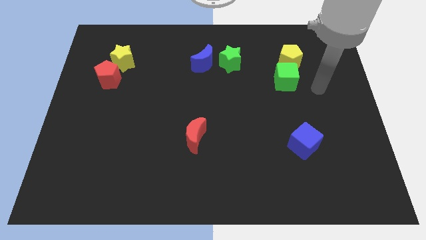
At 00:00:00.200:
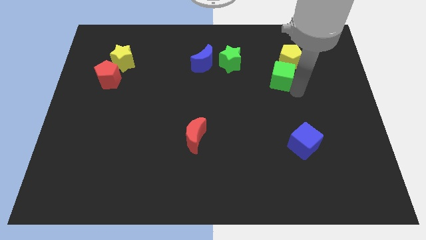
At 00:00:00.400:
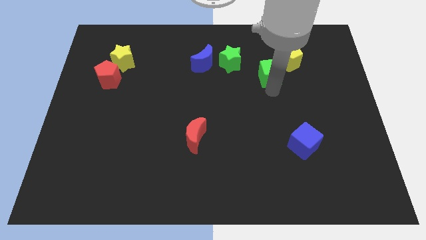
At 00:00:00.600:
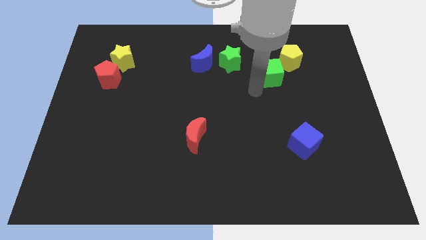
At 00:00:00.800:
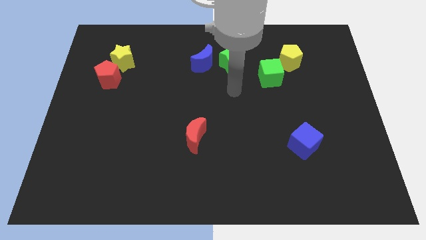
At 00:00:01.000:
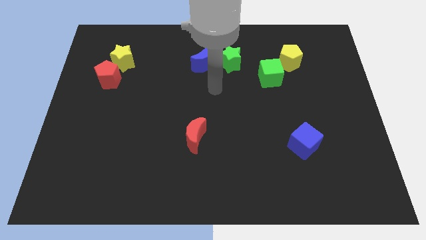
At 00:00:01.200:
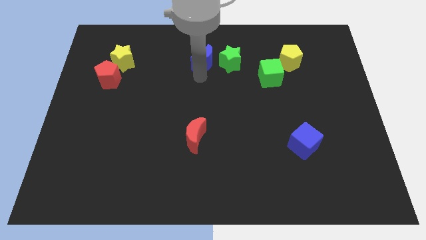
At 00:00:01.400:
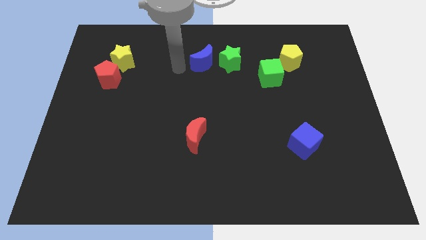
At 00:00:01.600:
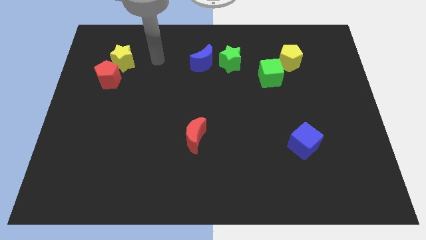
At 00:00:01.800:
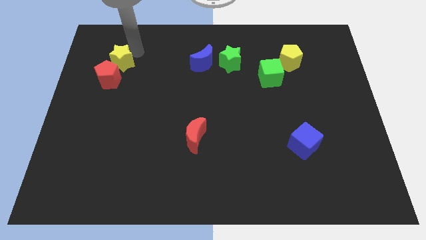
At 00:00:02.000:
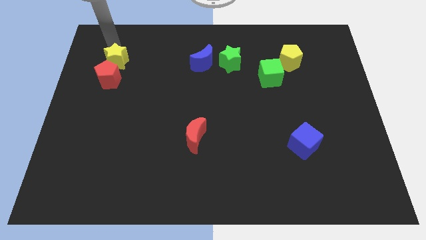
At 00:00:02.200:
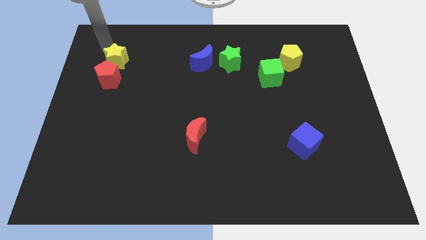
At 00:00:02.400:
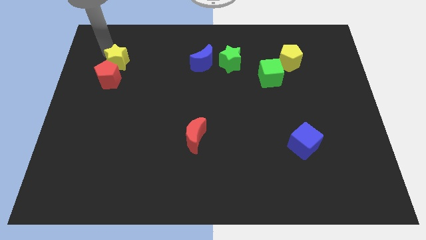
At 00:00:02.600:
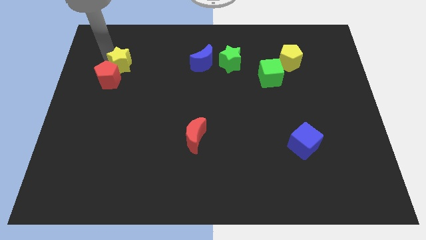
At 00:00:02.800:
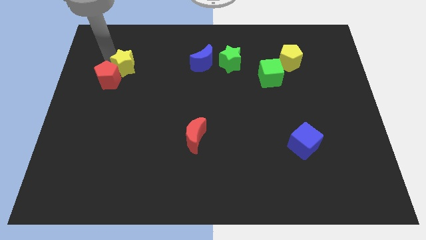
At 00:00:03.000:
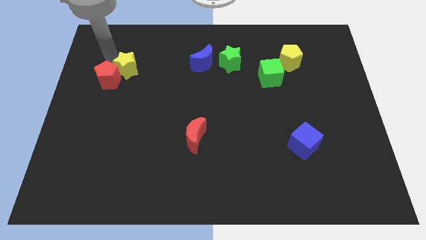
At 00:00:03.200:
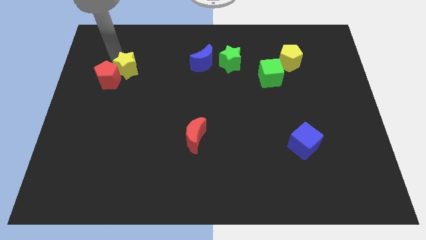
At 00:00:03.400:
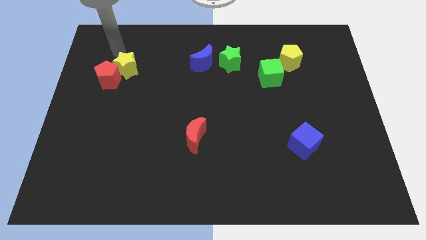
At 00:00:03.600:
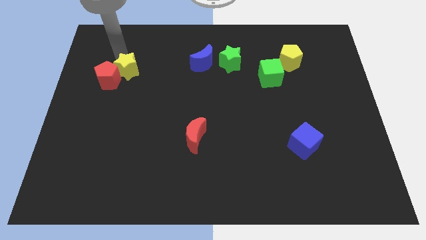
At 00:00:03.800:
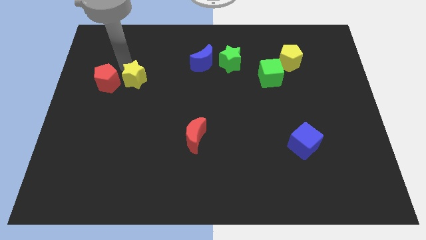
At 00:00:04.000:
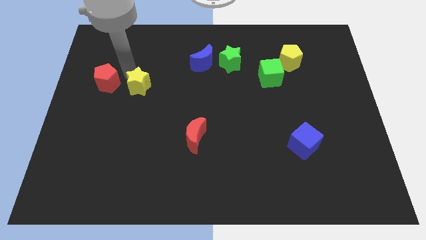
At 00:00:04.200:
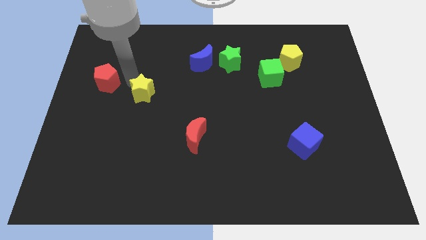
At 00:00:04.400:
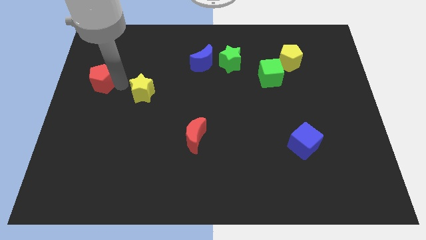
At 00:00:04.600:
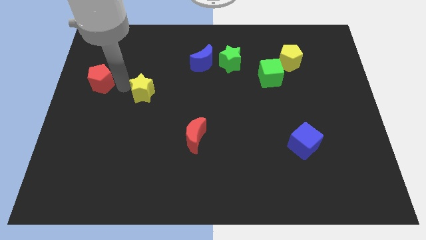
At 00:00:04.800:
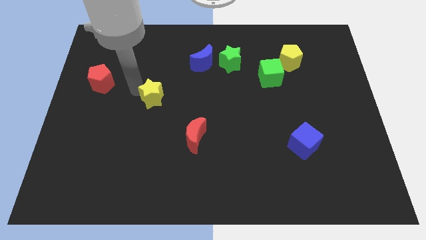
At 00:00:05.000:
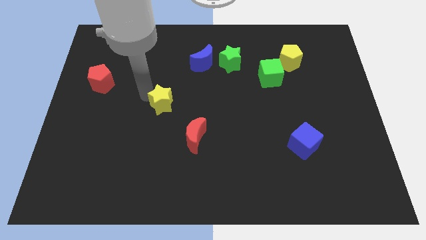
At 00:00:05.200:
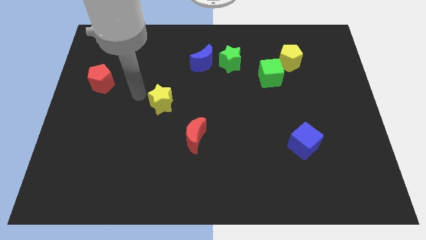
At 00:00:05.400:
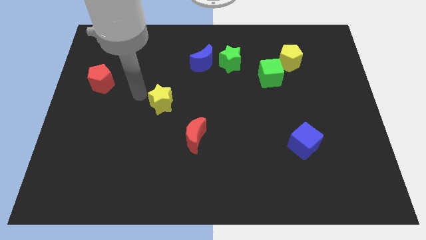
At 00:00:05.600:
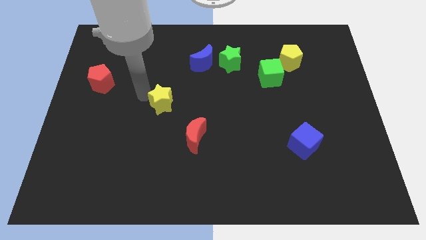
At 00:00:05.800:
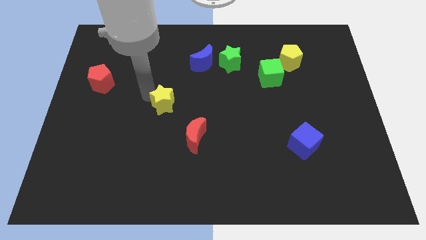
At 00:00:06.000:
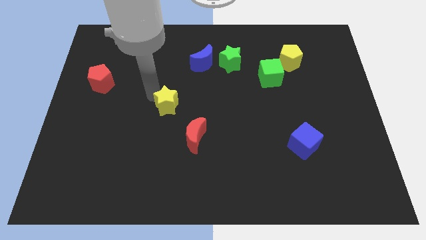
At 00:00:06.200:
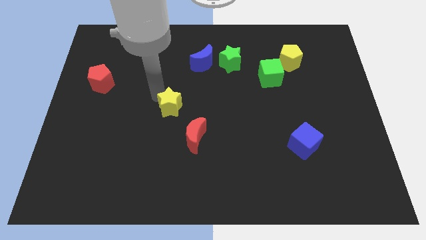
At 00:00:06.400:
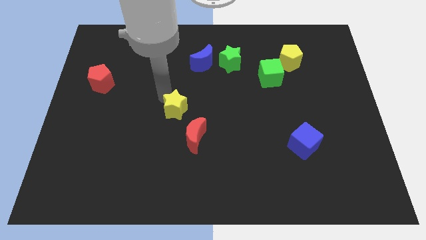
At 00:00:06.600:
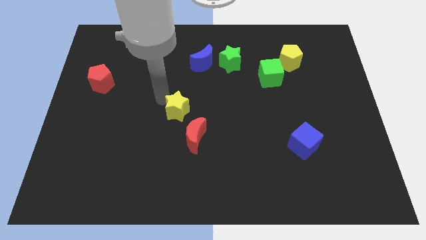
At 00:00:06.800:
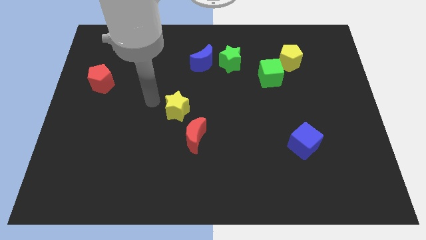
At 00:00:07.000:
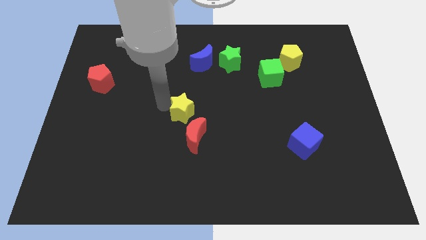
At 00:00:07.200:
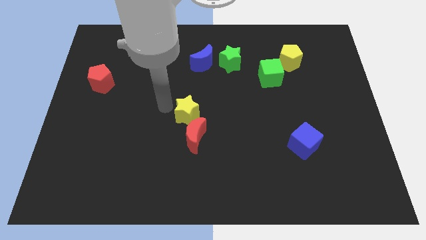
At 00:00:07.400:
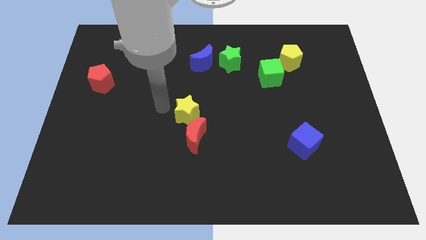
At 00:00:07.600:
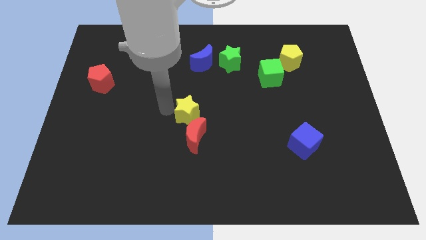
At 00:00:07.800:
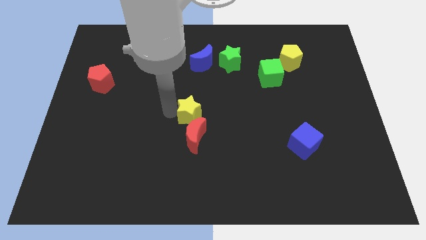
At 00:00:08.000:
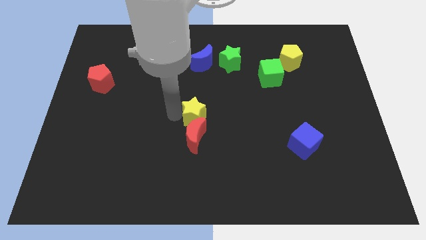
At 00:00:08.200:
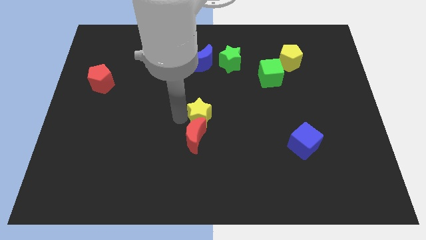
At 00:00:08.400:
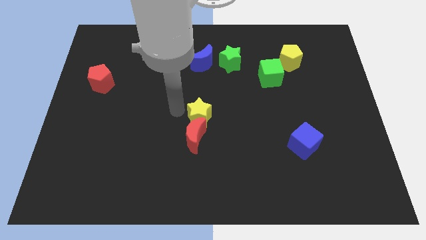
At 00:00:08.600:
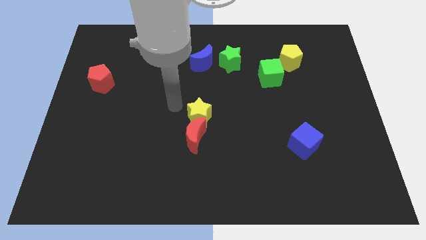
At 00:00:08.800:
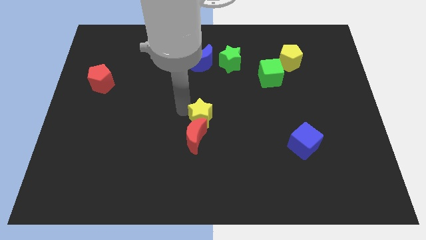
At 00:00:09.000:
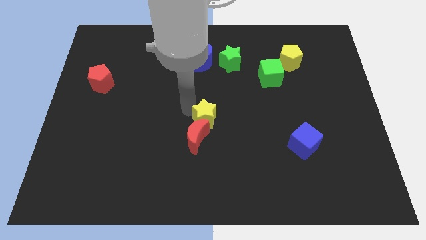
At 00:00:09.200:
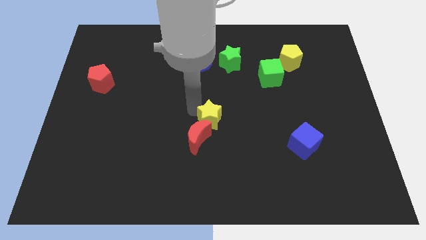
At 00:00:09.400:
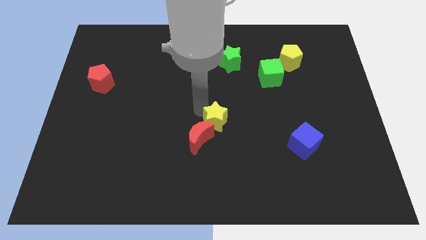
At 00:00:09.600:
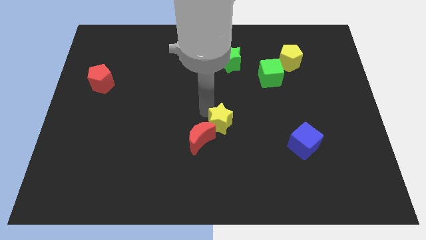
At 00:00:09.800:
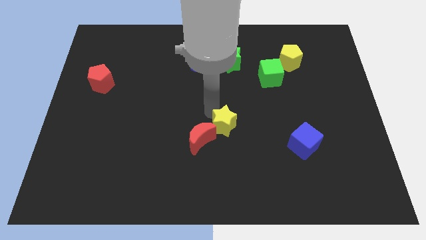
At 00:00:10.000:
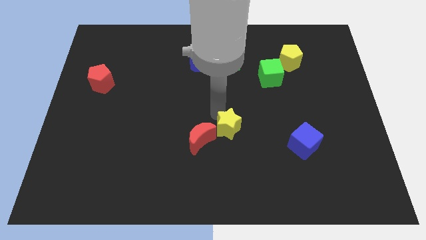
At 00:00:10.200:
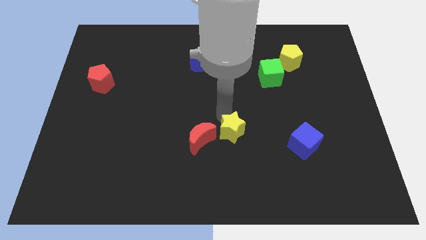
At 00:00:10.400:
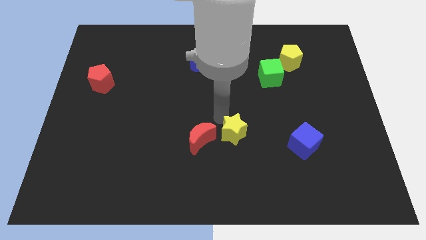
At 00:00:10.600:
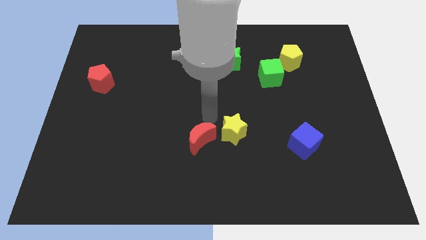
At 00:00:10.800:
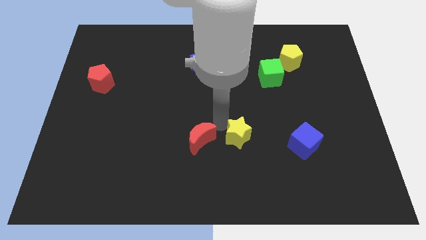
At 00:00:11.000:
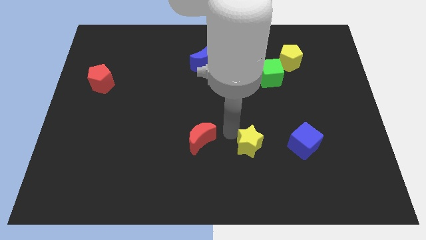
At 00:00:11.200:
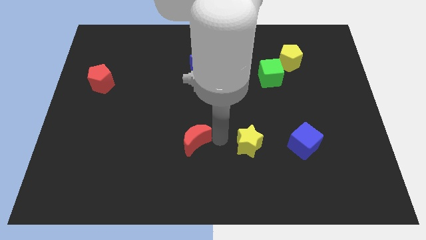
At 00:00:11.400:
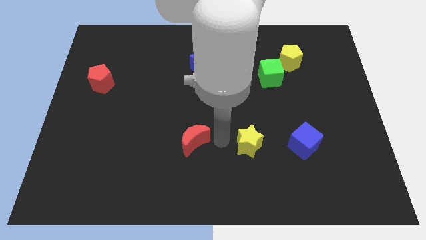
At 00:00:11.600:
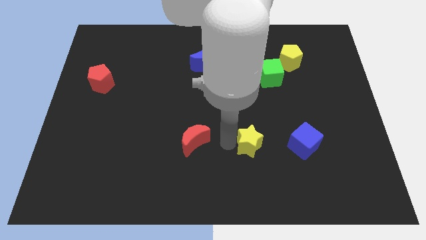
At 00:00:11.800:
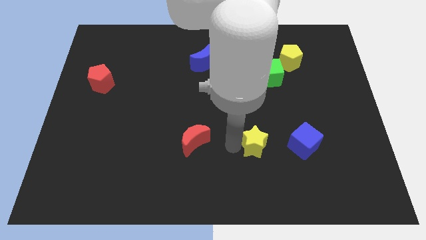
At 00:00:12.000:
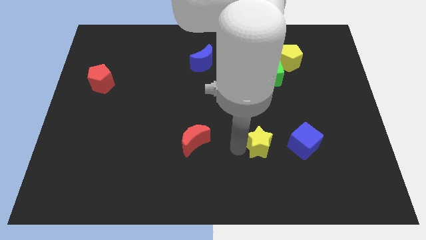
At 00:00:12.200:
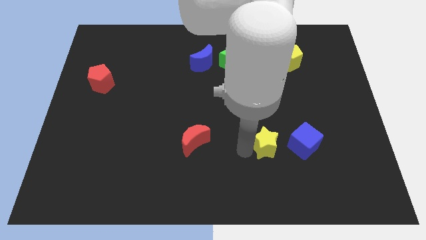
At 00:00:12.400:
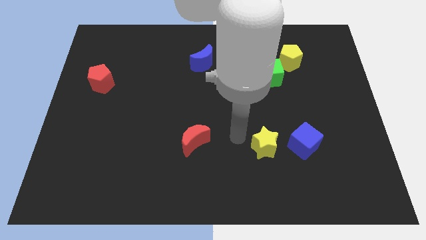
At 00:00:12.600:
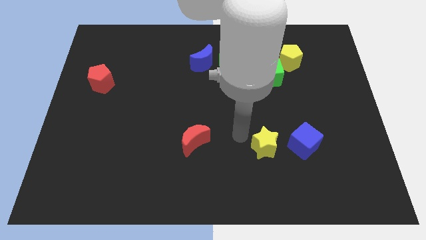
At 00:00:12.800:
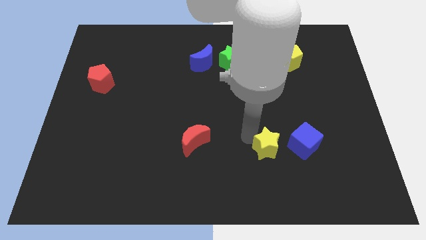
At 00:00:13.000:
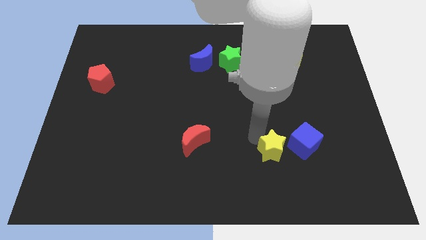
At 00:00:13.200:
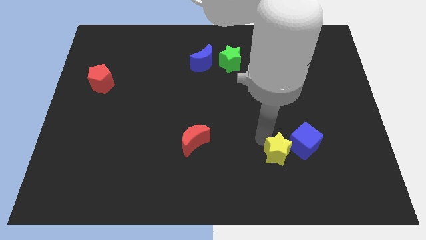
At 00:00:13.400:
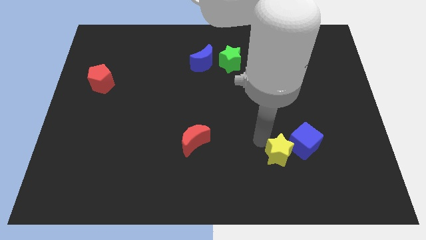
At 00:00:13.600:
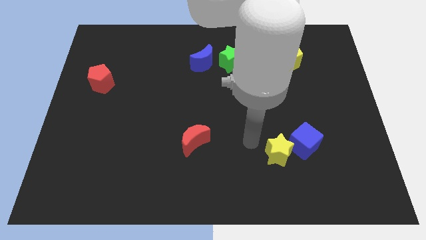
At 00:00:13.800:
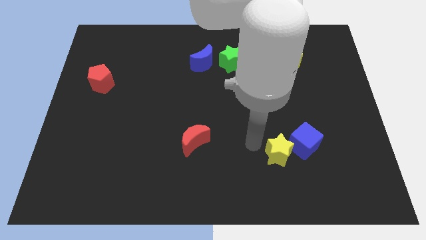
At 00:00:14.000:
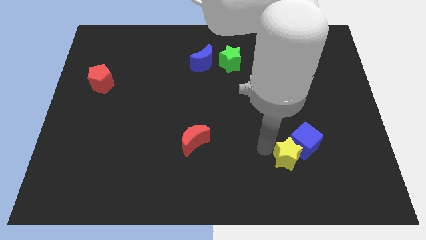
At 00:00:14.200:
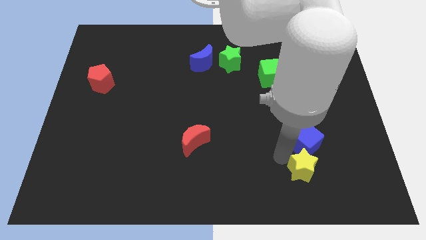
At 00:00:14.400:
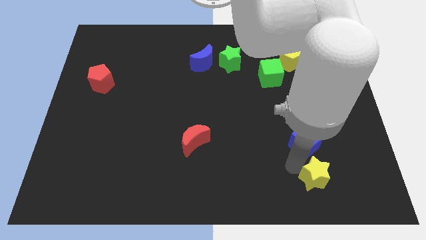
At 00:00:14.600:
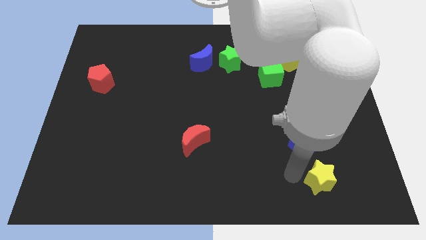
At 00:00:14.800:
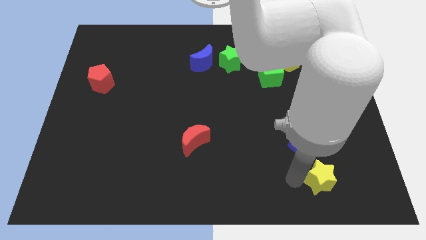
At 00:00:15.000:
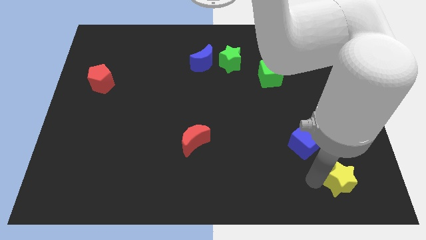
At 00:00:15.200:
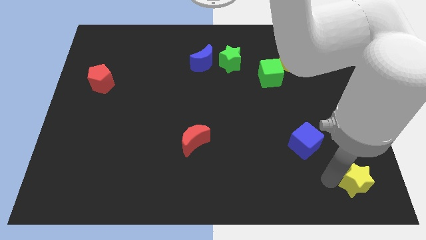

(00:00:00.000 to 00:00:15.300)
slide the yellow star to the bottom right of the board
